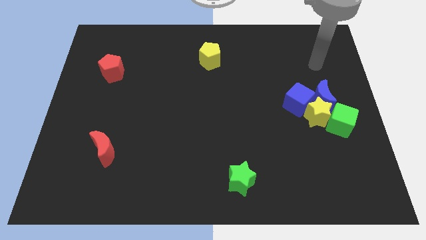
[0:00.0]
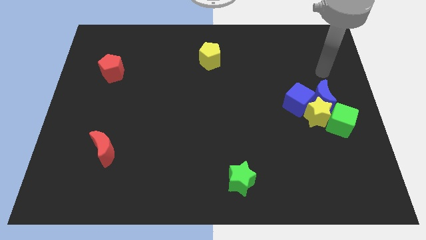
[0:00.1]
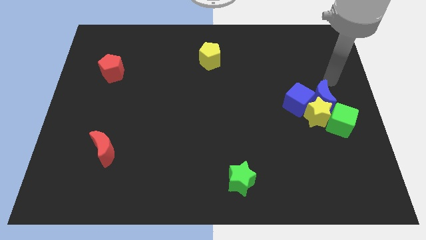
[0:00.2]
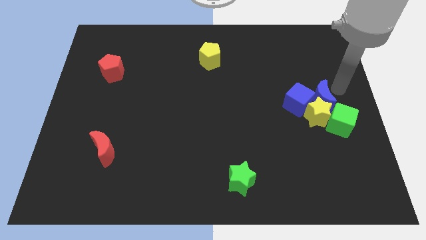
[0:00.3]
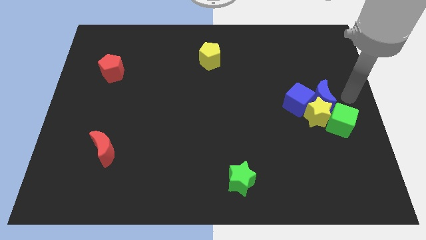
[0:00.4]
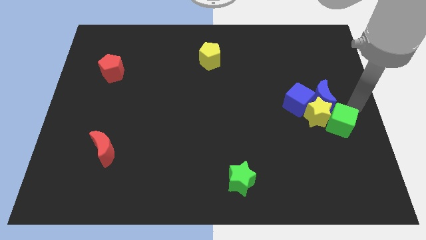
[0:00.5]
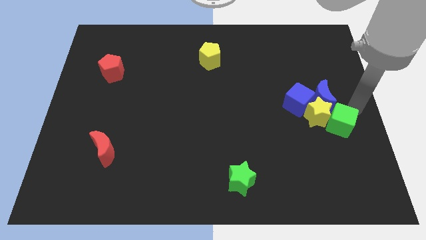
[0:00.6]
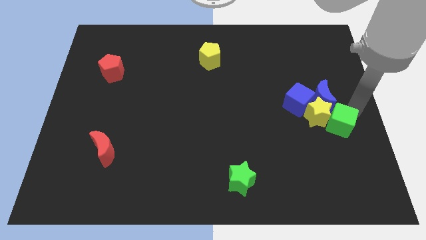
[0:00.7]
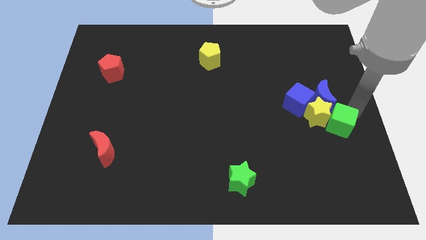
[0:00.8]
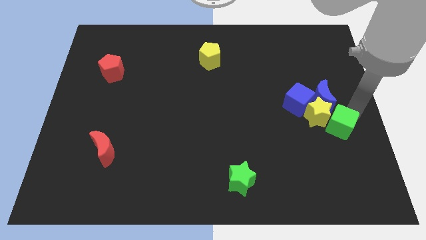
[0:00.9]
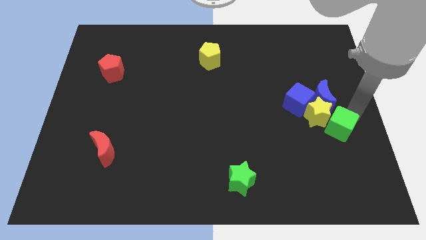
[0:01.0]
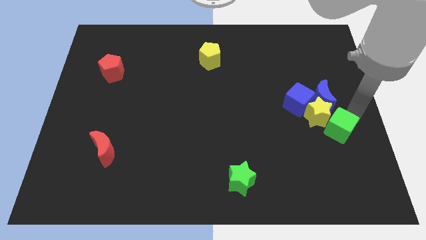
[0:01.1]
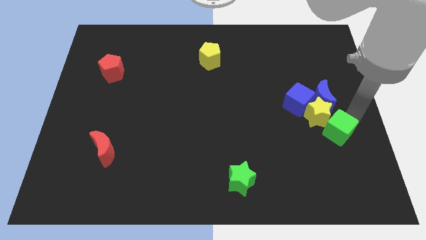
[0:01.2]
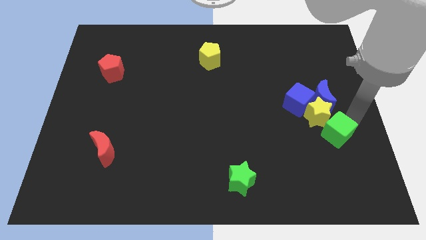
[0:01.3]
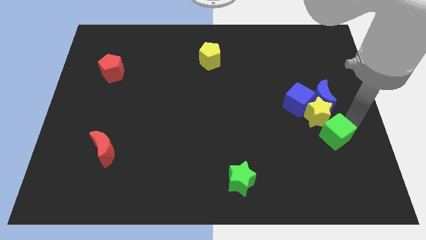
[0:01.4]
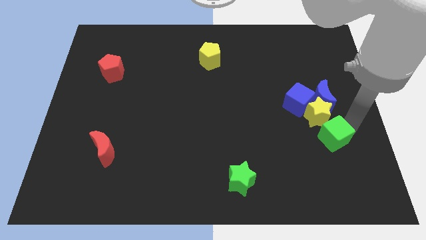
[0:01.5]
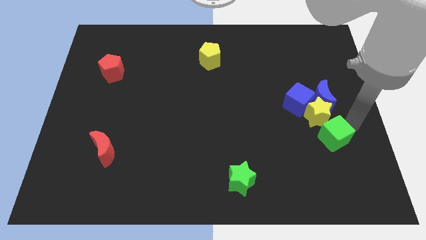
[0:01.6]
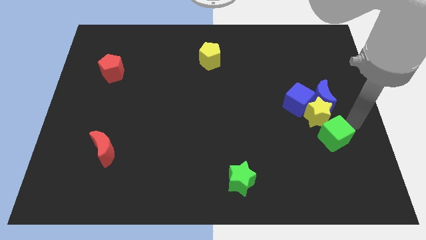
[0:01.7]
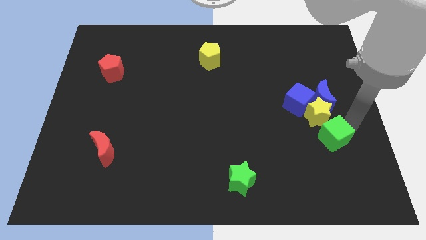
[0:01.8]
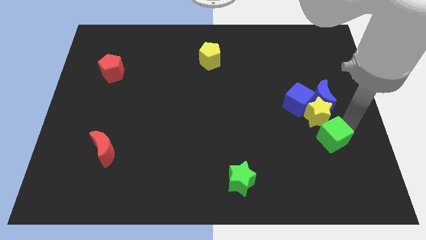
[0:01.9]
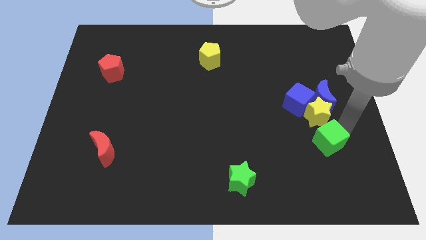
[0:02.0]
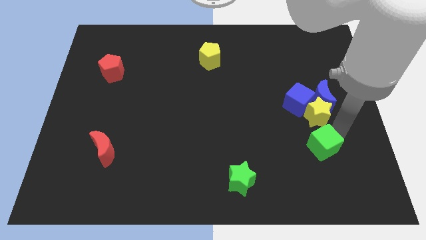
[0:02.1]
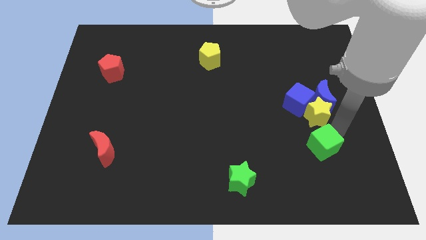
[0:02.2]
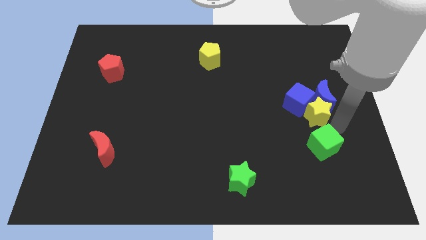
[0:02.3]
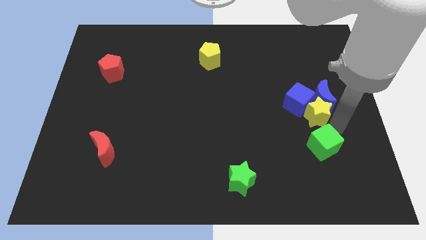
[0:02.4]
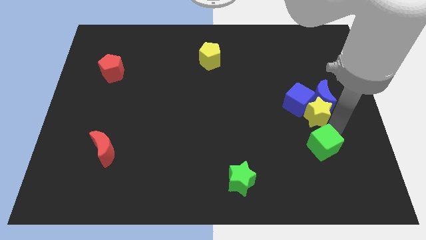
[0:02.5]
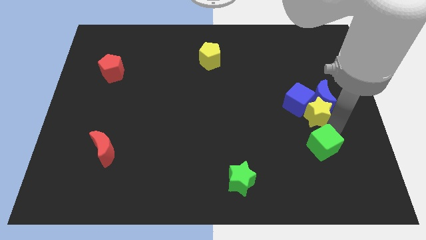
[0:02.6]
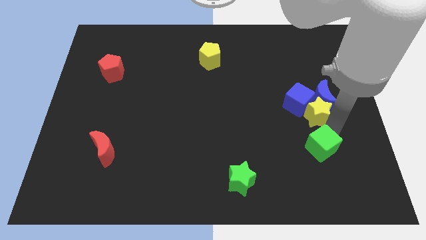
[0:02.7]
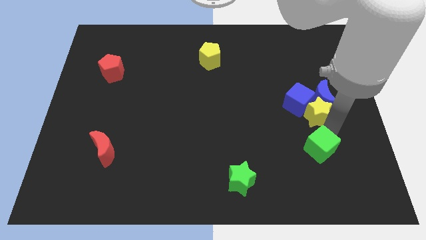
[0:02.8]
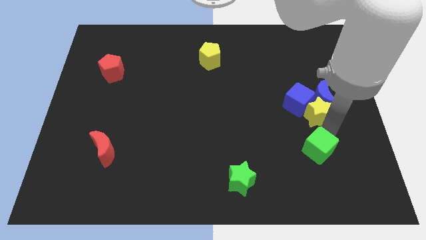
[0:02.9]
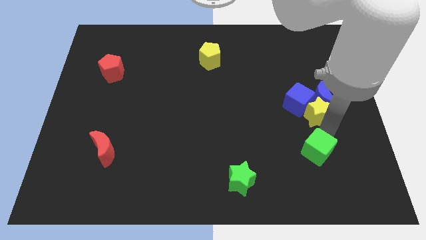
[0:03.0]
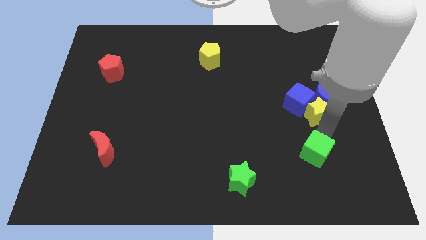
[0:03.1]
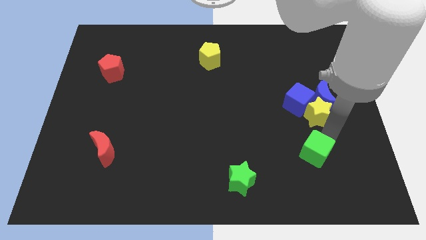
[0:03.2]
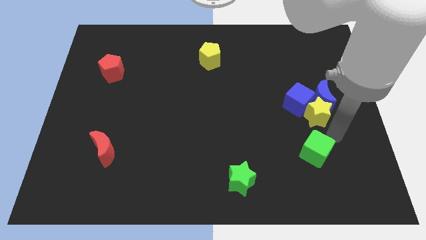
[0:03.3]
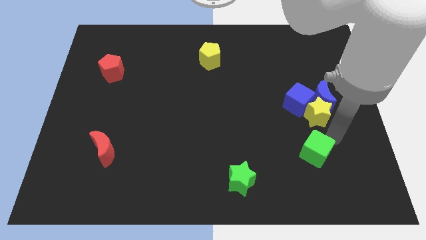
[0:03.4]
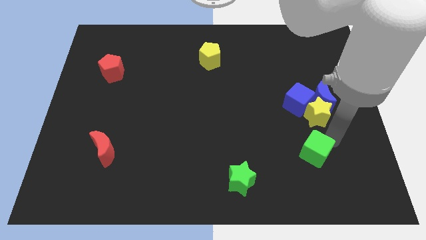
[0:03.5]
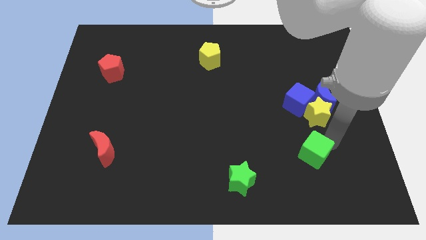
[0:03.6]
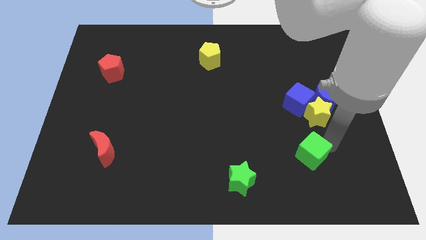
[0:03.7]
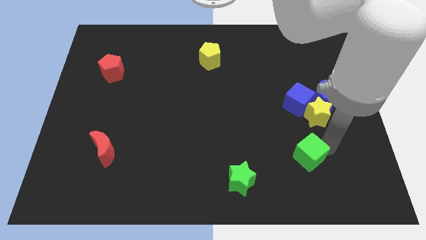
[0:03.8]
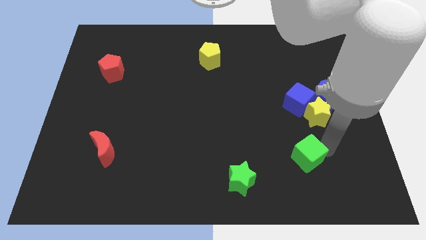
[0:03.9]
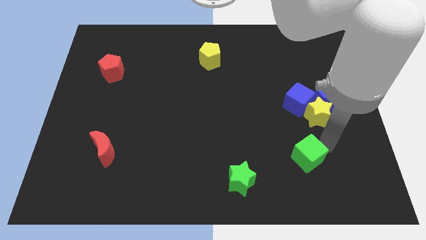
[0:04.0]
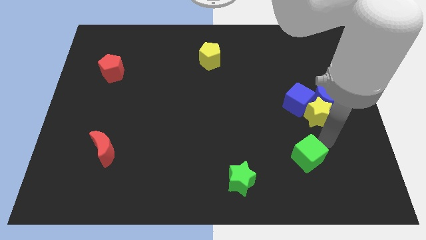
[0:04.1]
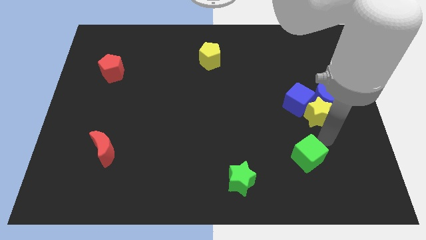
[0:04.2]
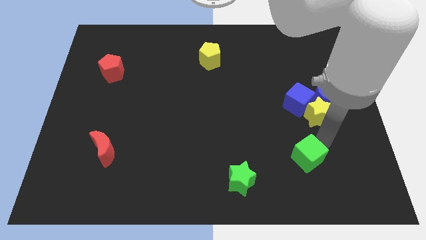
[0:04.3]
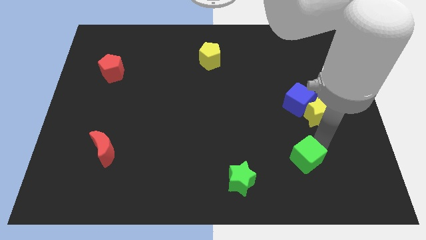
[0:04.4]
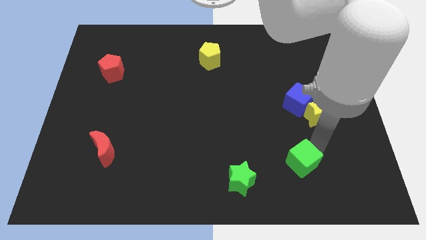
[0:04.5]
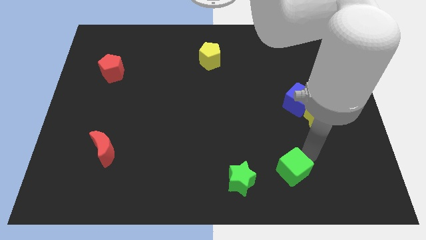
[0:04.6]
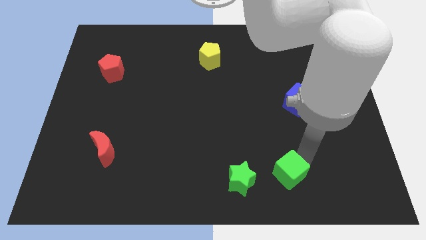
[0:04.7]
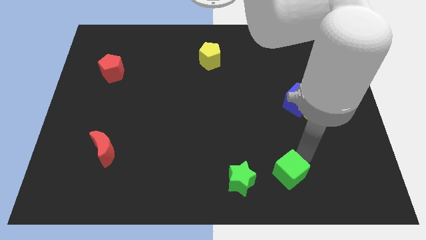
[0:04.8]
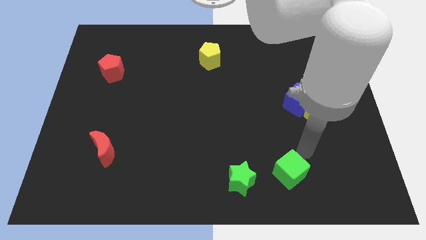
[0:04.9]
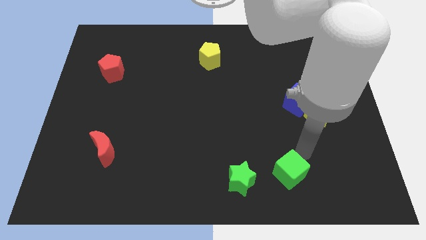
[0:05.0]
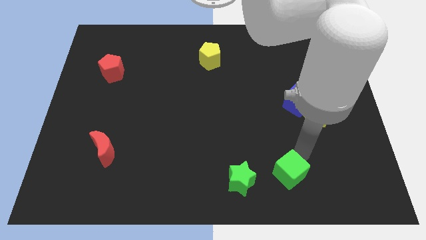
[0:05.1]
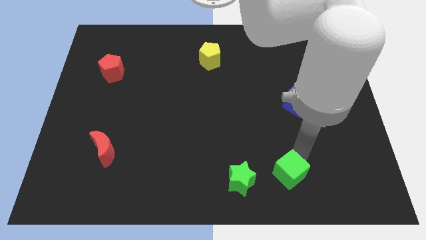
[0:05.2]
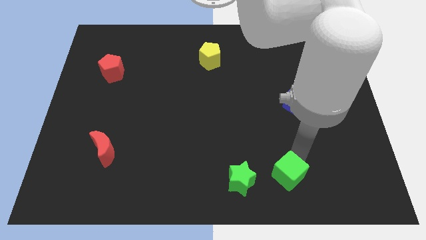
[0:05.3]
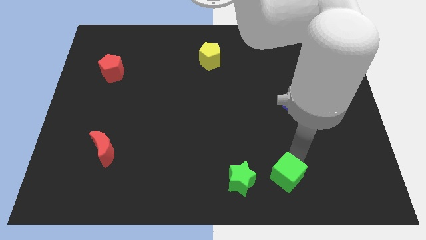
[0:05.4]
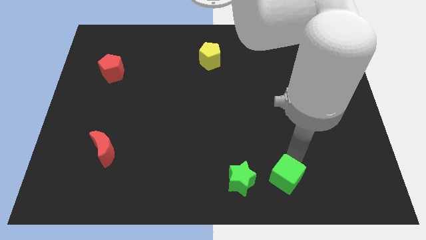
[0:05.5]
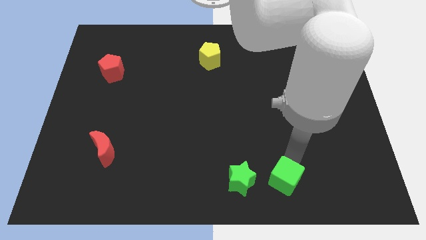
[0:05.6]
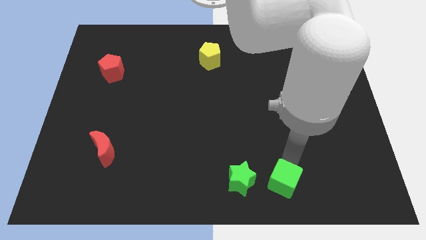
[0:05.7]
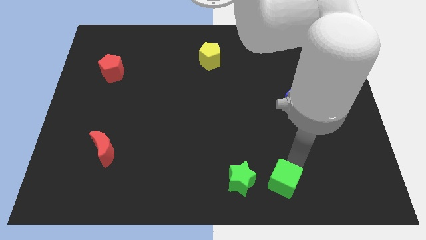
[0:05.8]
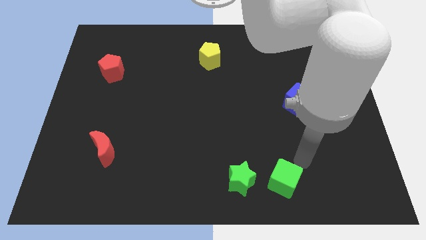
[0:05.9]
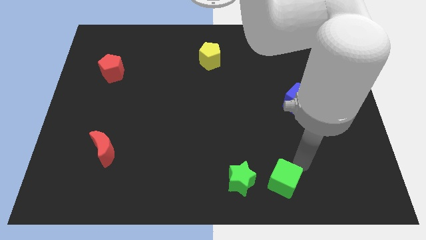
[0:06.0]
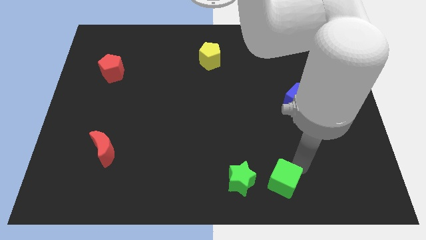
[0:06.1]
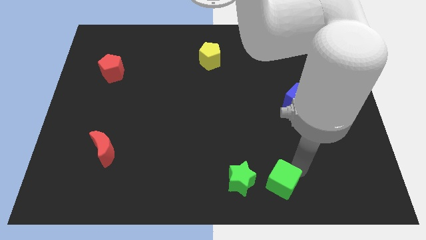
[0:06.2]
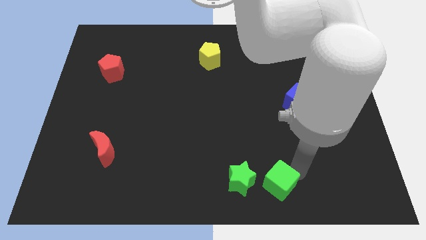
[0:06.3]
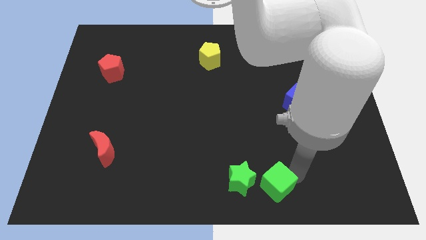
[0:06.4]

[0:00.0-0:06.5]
slide the green cube to the bottom side

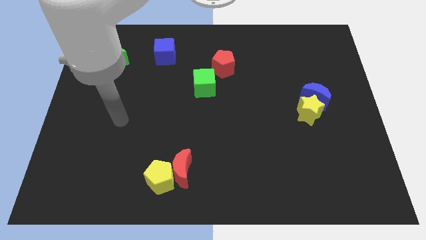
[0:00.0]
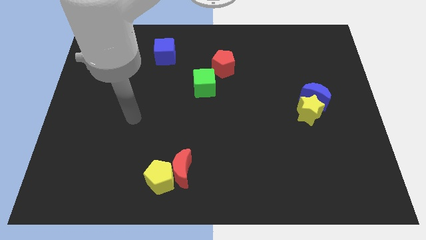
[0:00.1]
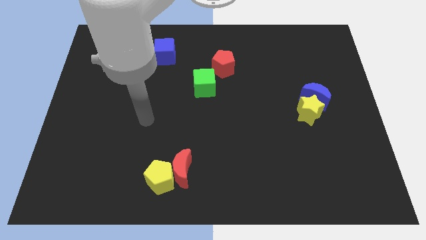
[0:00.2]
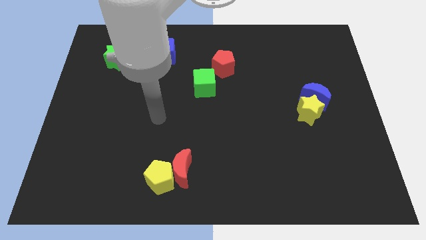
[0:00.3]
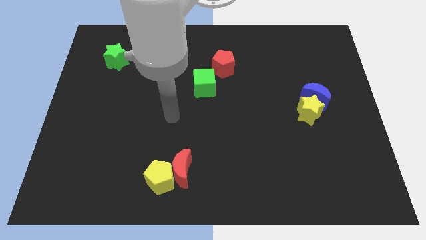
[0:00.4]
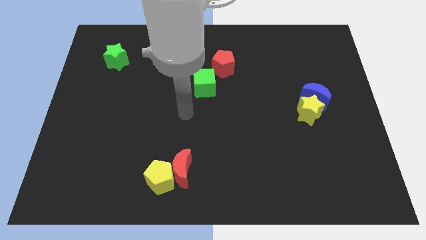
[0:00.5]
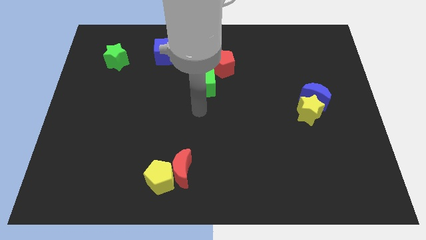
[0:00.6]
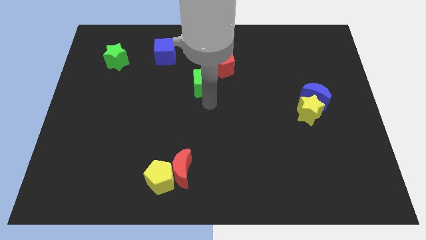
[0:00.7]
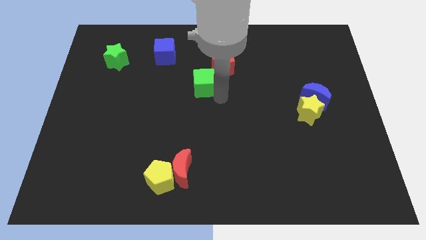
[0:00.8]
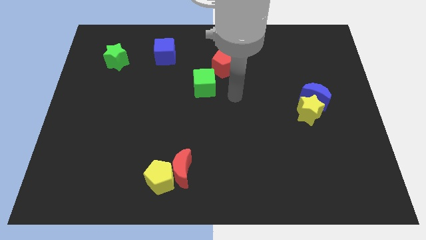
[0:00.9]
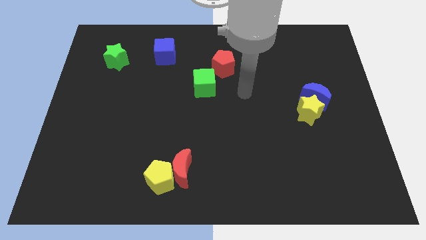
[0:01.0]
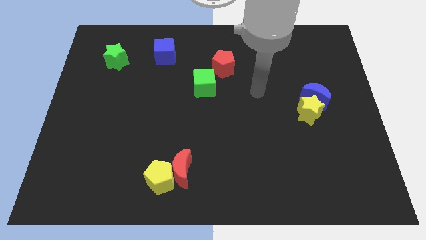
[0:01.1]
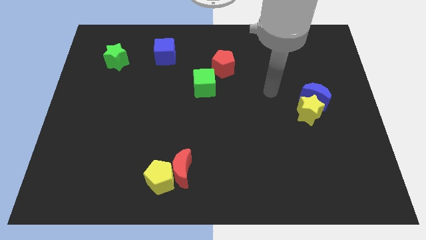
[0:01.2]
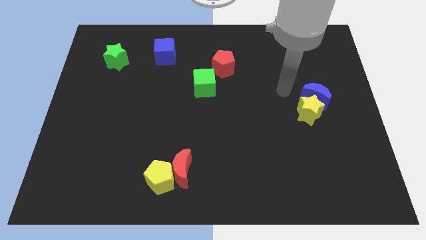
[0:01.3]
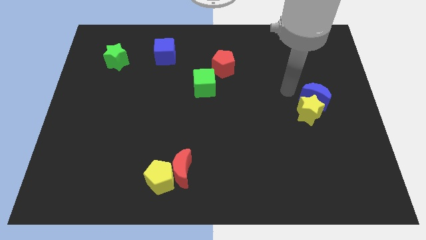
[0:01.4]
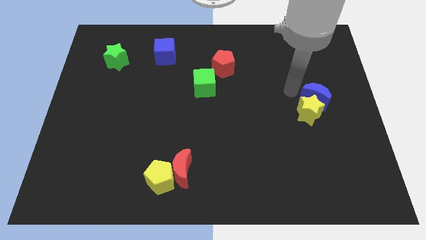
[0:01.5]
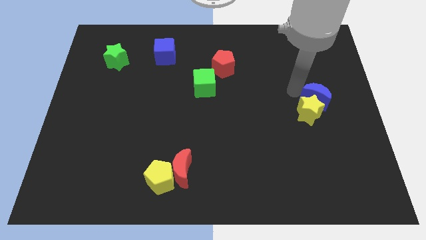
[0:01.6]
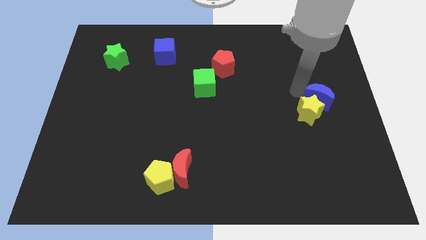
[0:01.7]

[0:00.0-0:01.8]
put the blue moon to the right side of the board
